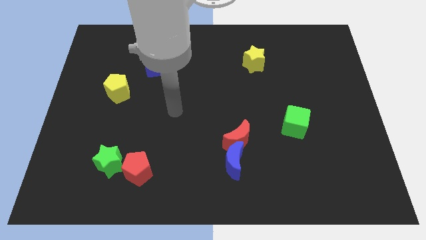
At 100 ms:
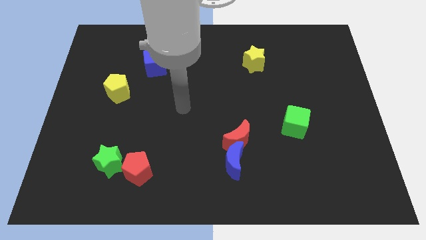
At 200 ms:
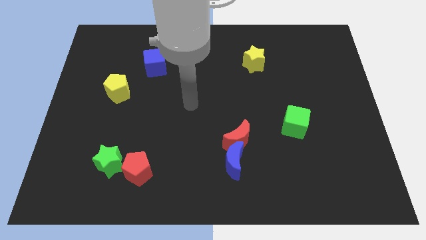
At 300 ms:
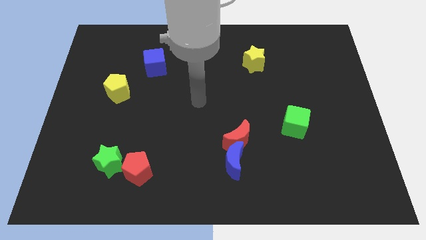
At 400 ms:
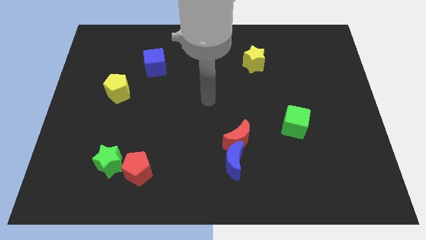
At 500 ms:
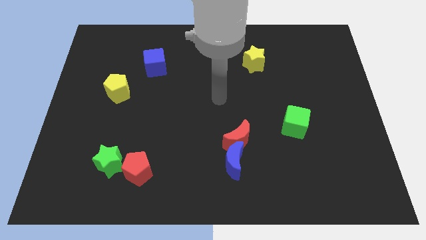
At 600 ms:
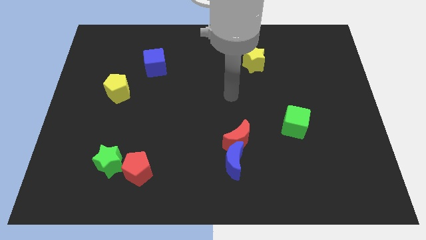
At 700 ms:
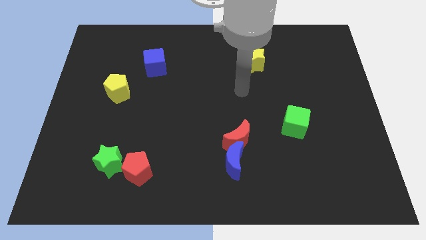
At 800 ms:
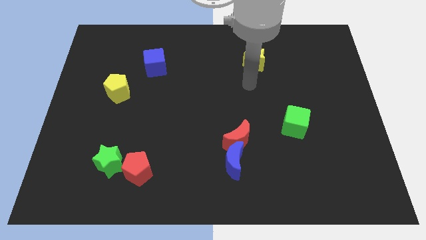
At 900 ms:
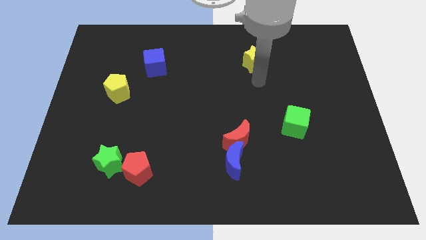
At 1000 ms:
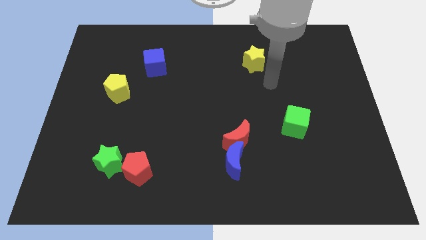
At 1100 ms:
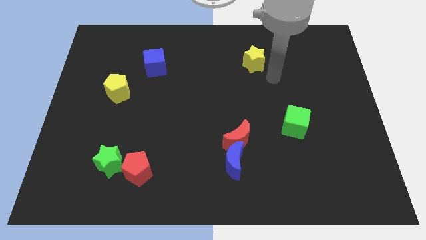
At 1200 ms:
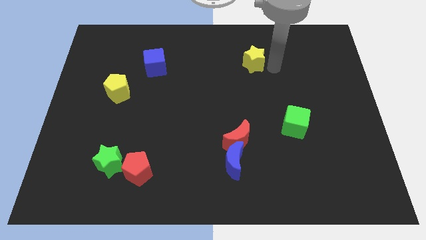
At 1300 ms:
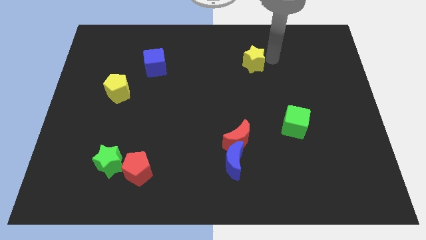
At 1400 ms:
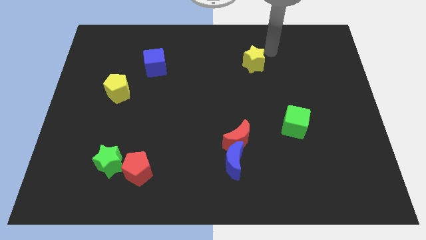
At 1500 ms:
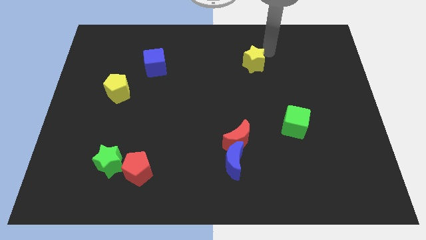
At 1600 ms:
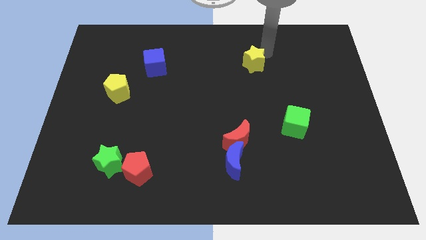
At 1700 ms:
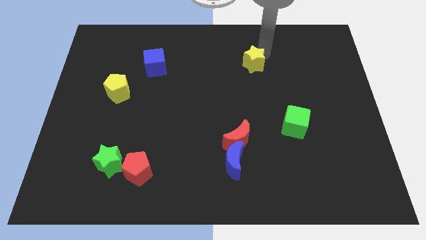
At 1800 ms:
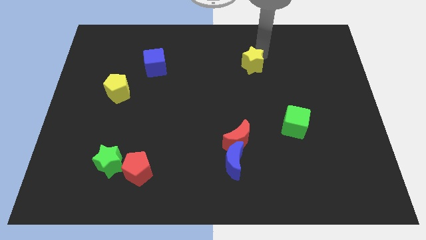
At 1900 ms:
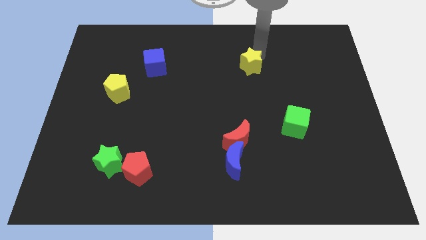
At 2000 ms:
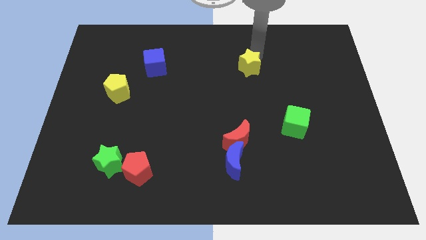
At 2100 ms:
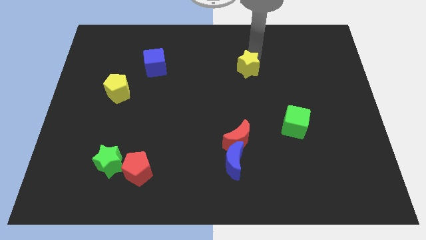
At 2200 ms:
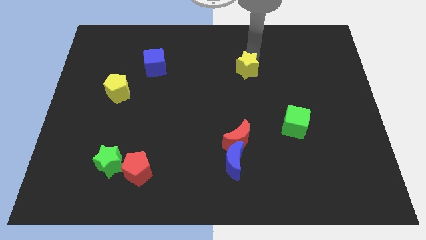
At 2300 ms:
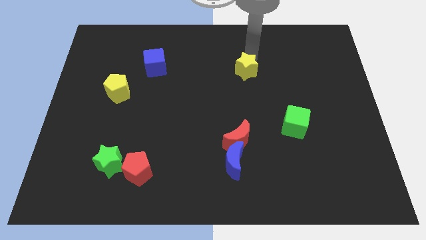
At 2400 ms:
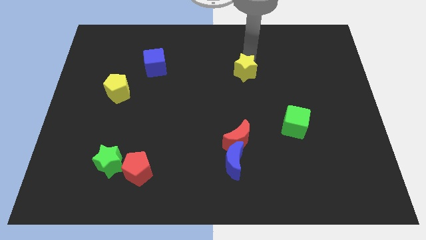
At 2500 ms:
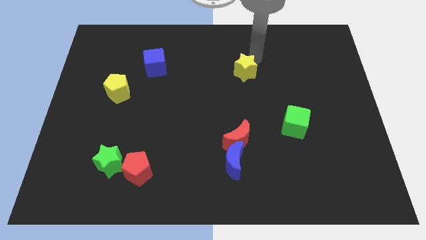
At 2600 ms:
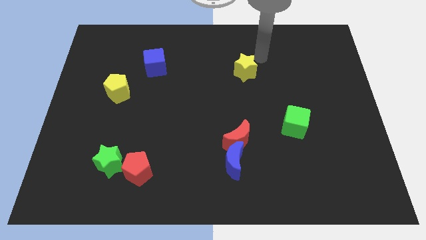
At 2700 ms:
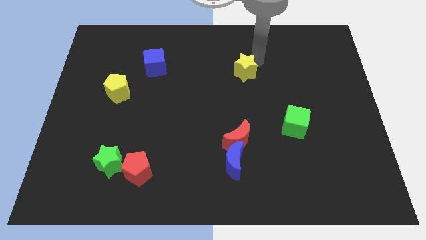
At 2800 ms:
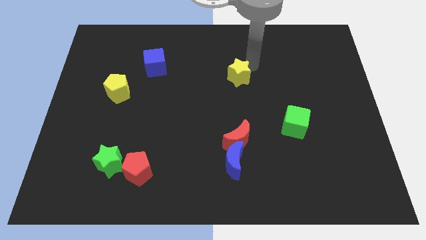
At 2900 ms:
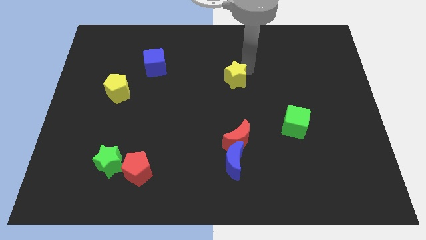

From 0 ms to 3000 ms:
slide the yellow star a little diagonally downwards and left

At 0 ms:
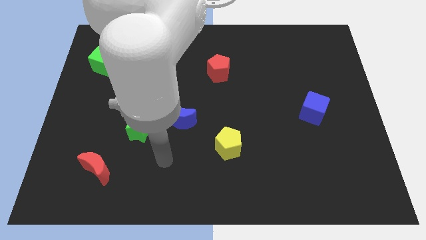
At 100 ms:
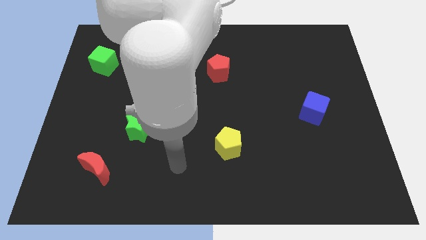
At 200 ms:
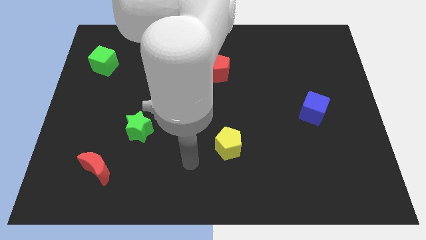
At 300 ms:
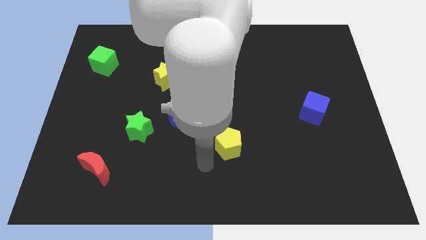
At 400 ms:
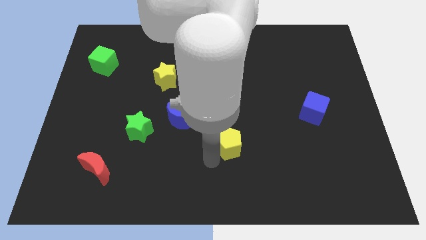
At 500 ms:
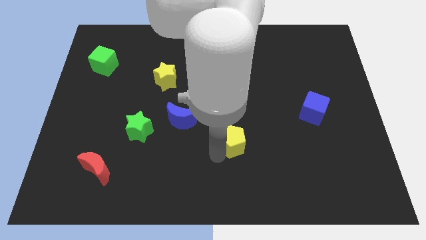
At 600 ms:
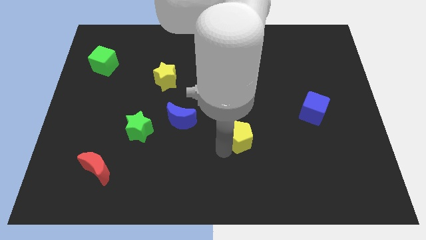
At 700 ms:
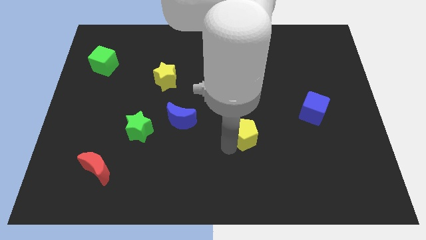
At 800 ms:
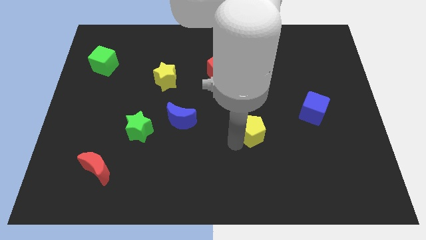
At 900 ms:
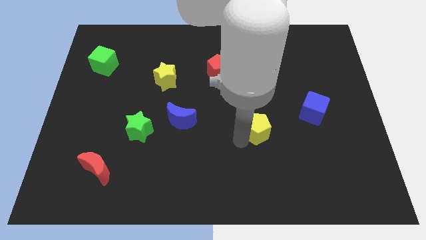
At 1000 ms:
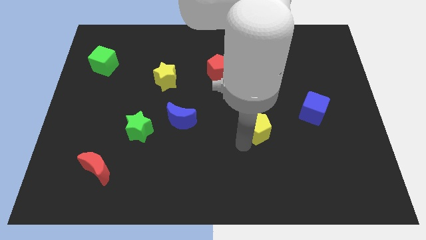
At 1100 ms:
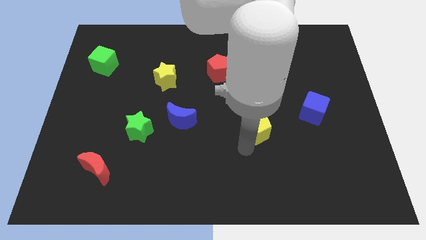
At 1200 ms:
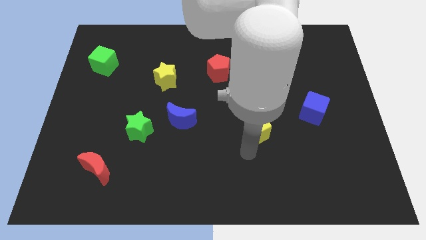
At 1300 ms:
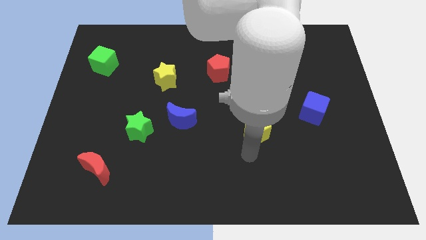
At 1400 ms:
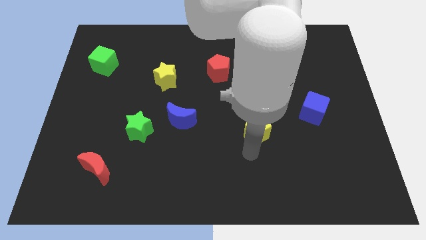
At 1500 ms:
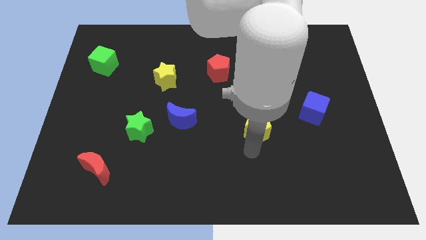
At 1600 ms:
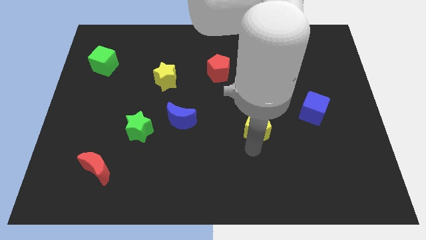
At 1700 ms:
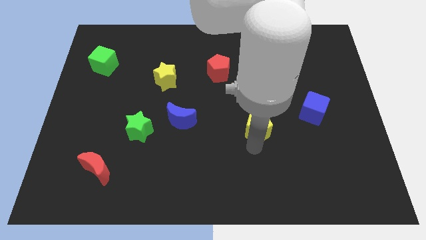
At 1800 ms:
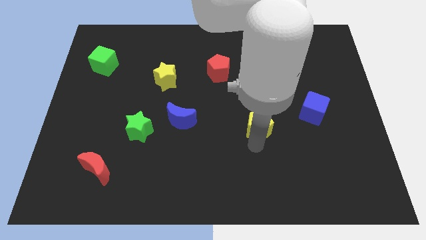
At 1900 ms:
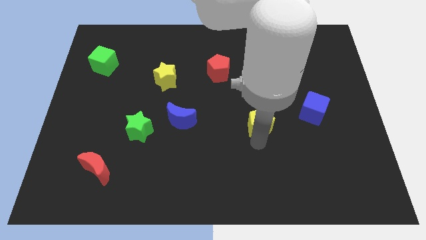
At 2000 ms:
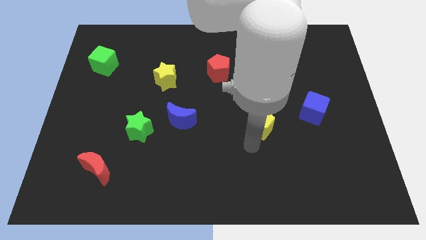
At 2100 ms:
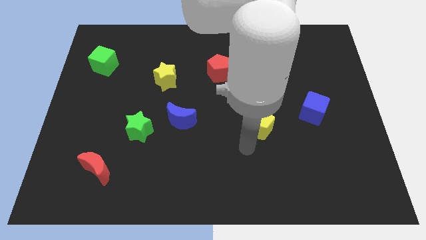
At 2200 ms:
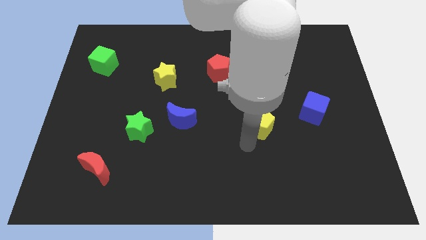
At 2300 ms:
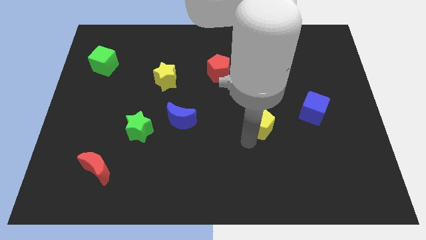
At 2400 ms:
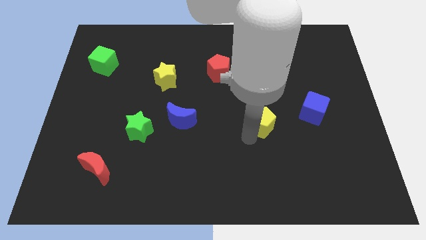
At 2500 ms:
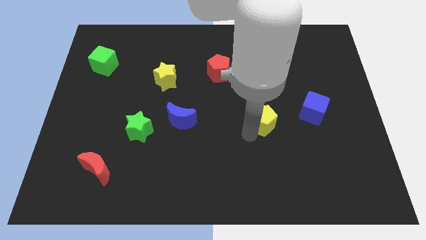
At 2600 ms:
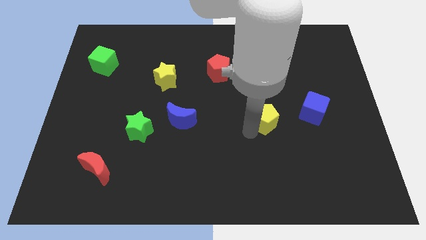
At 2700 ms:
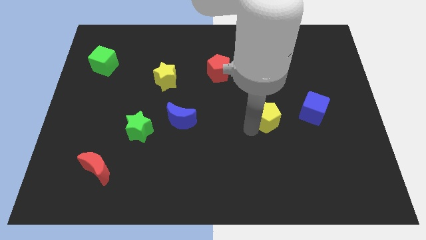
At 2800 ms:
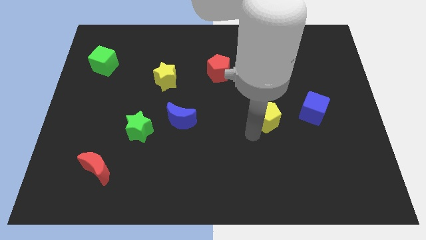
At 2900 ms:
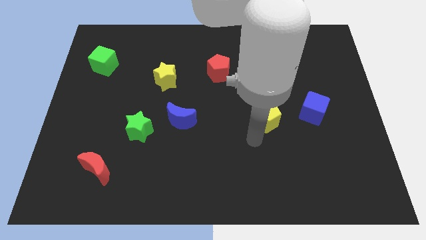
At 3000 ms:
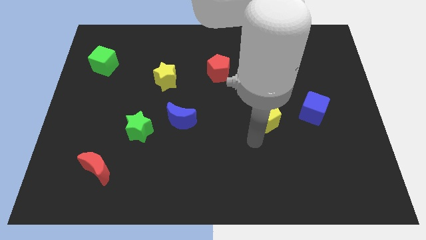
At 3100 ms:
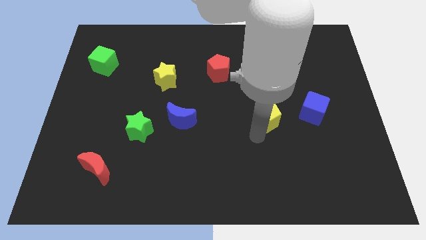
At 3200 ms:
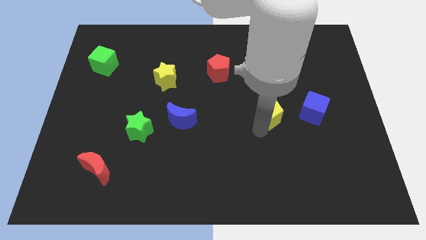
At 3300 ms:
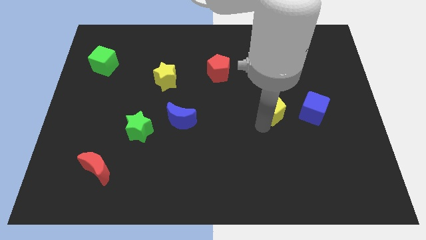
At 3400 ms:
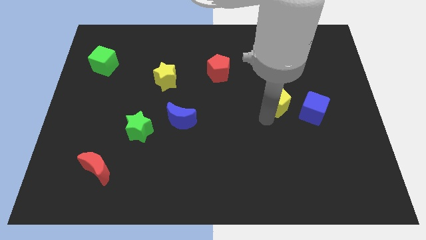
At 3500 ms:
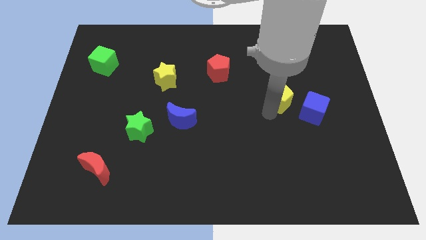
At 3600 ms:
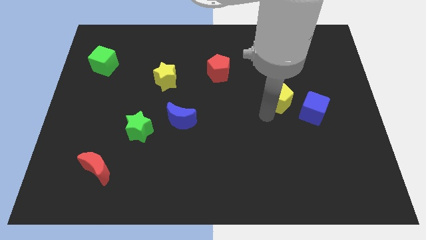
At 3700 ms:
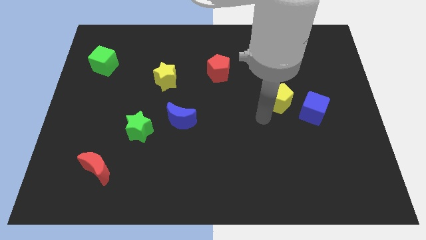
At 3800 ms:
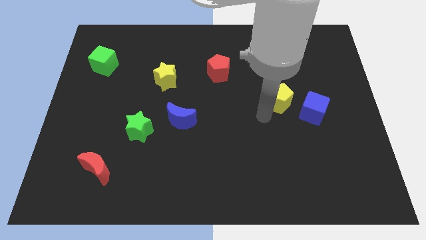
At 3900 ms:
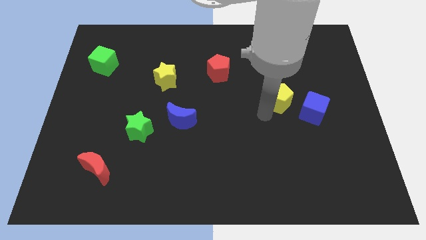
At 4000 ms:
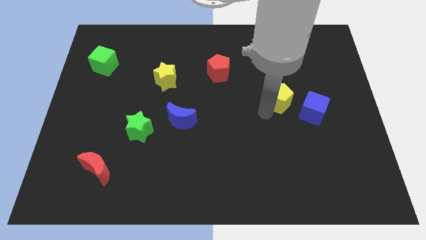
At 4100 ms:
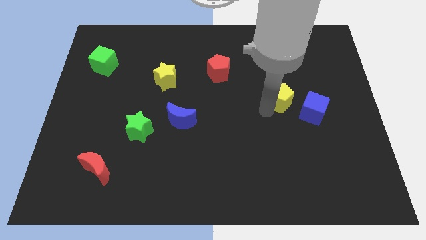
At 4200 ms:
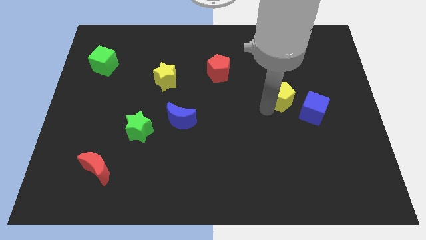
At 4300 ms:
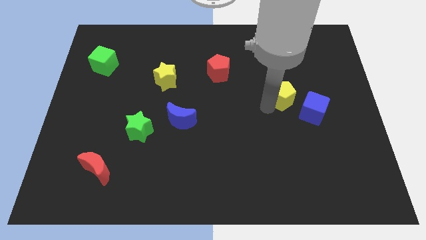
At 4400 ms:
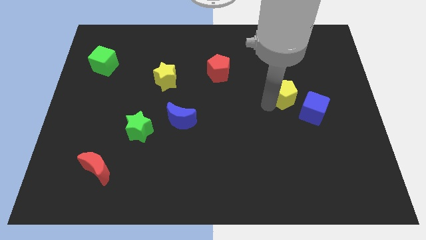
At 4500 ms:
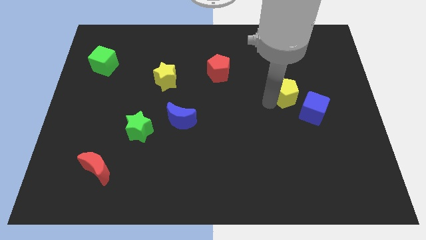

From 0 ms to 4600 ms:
push the yellow pentagon diagonally upwards and right
